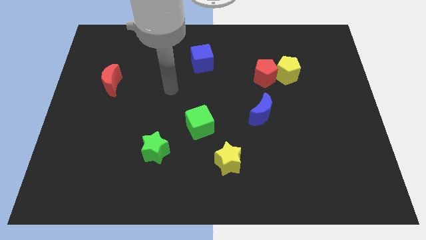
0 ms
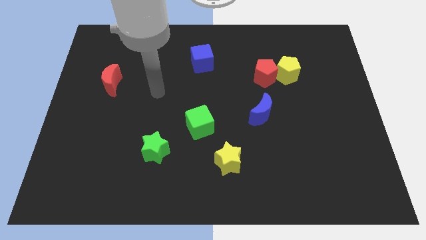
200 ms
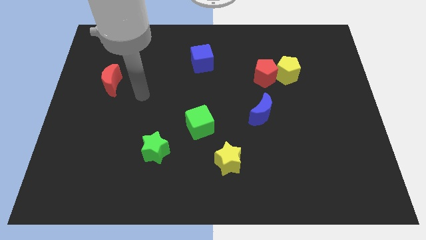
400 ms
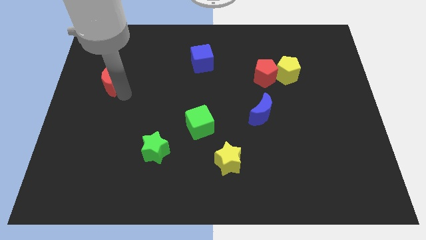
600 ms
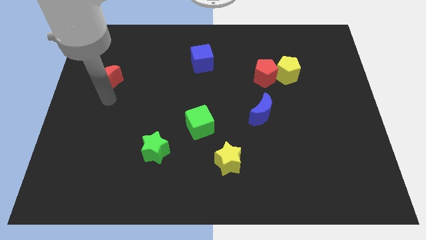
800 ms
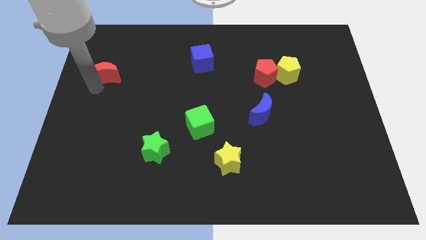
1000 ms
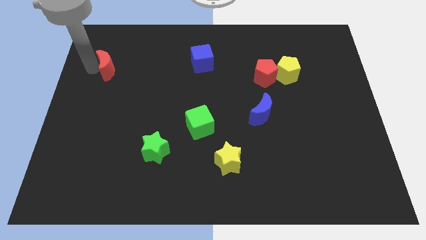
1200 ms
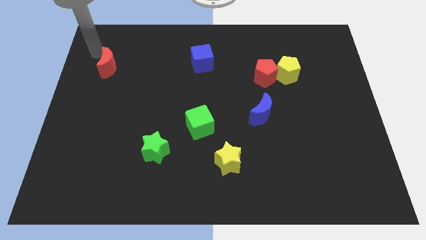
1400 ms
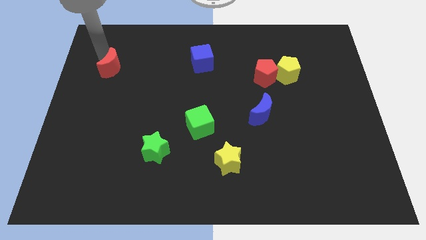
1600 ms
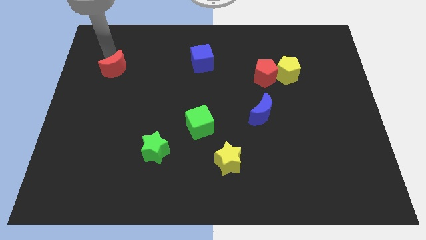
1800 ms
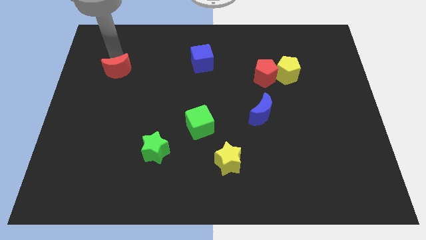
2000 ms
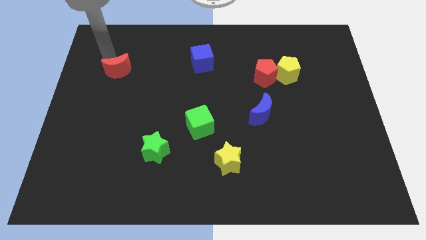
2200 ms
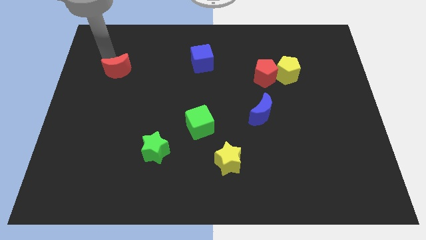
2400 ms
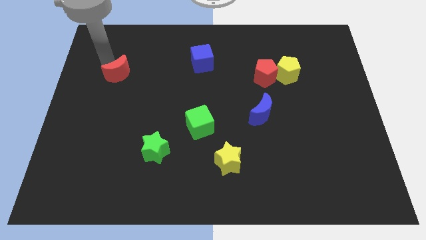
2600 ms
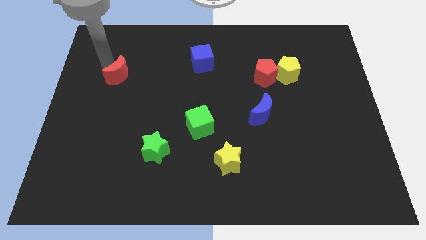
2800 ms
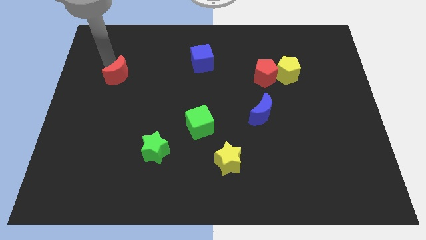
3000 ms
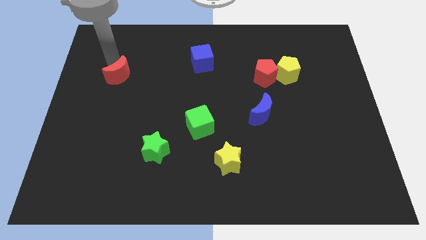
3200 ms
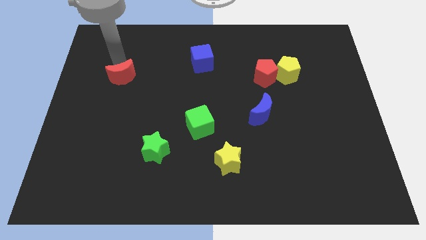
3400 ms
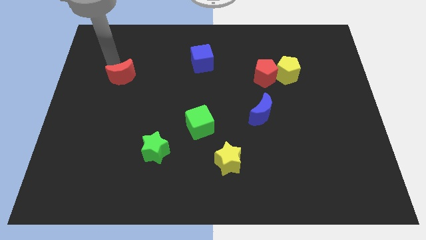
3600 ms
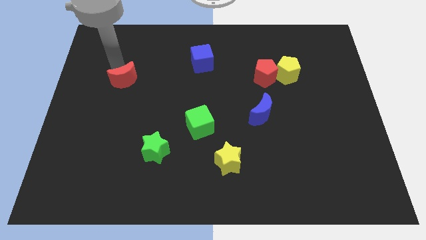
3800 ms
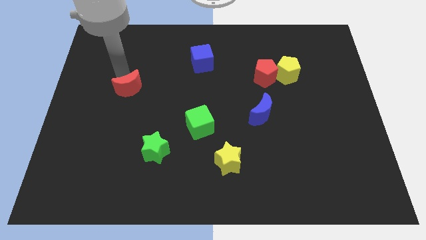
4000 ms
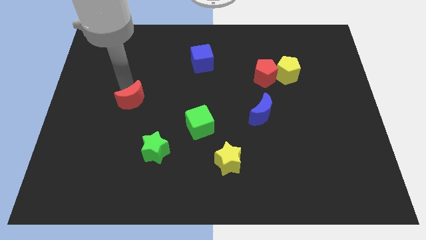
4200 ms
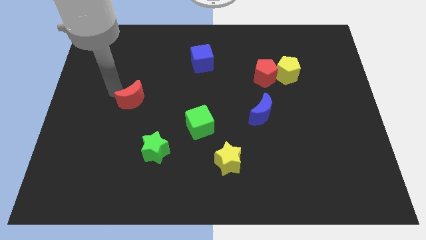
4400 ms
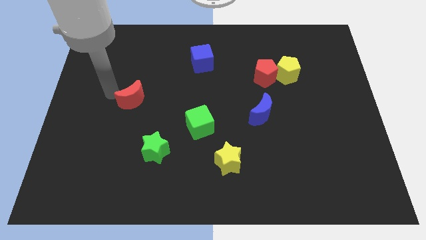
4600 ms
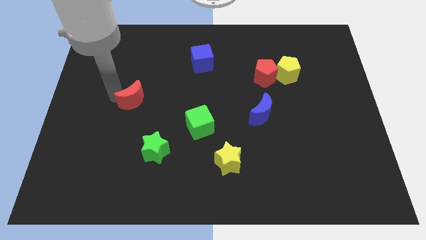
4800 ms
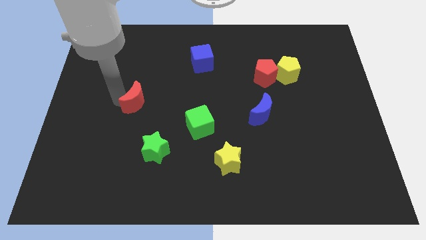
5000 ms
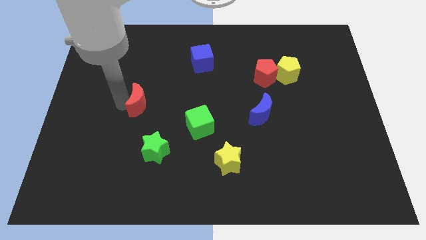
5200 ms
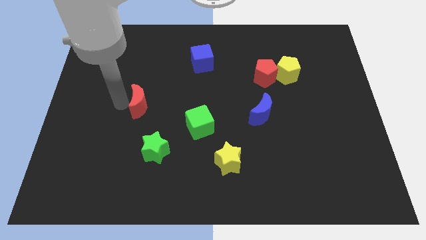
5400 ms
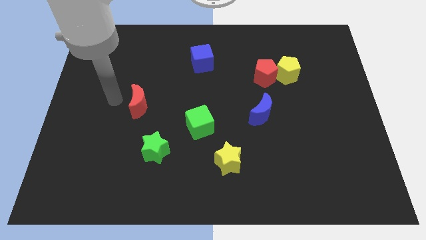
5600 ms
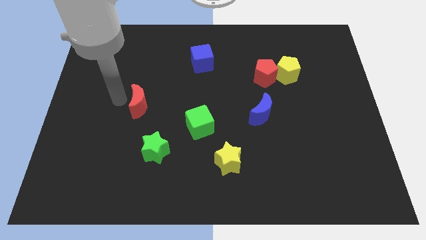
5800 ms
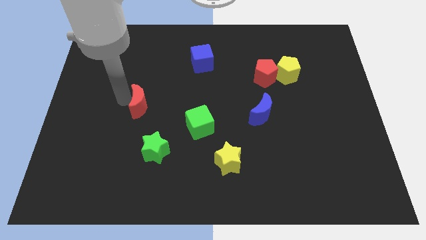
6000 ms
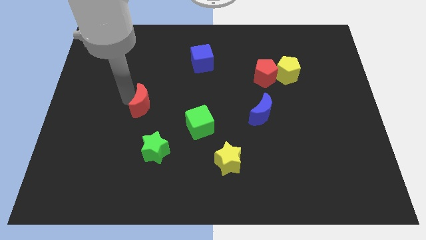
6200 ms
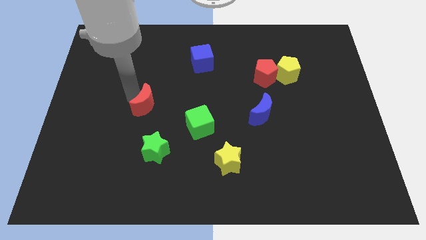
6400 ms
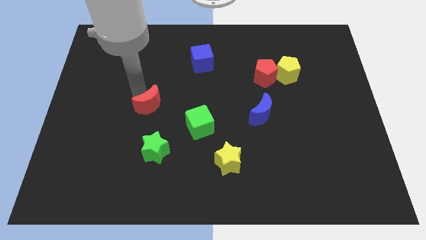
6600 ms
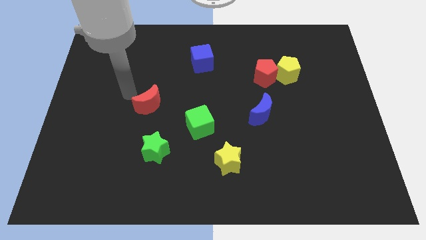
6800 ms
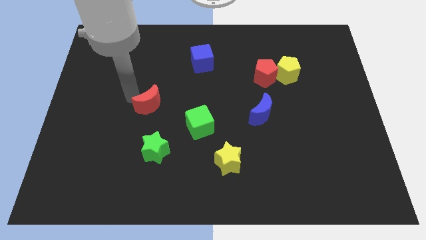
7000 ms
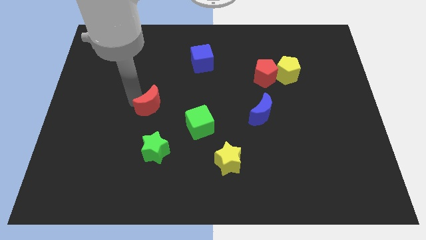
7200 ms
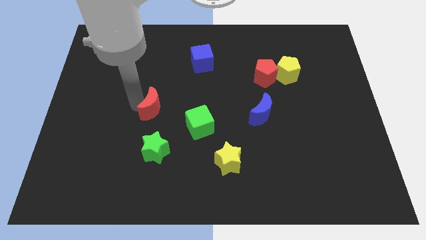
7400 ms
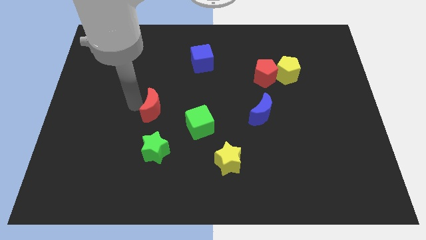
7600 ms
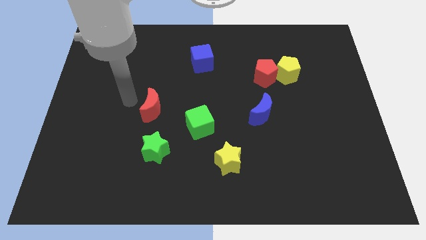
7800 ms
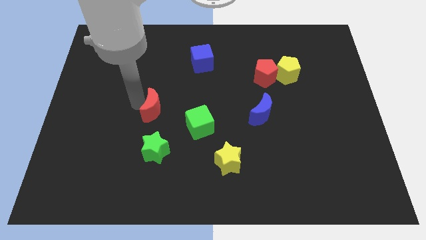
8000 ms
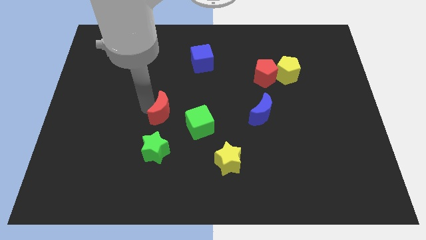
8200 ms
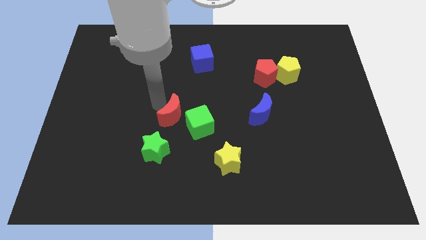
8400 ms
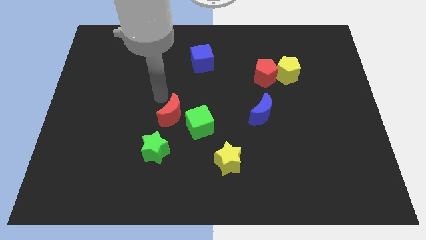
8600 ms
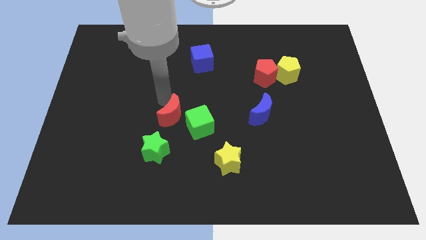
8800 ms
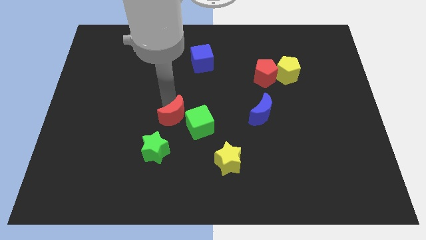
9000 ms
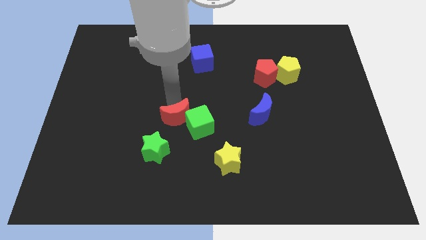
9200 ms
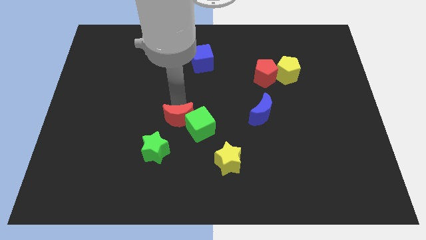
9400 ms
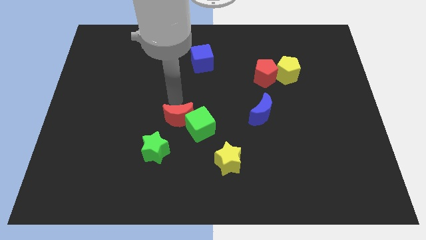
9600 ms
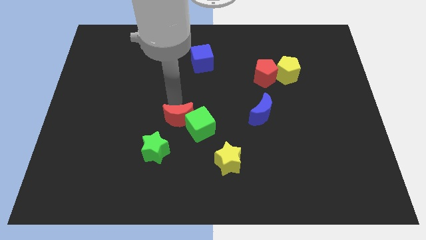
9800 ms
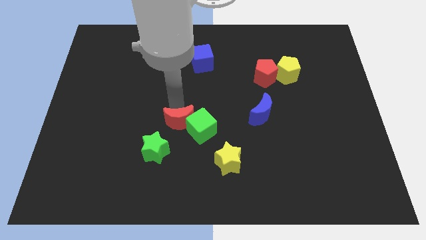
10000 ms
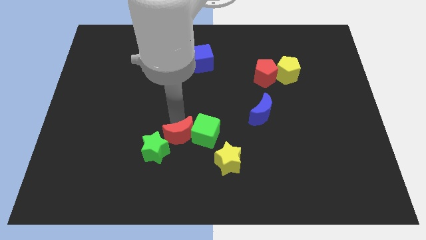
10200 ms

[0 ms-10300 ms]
slide the red moon to the right side of the green star
